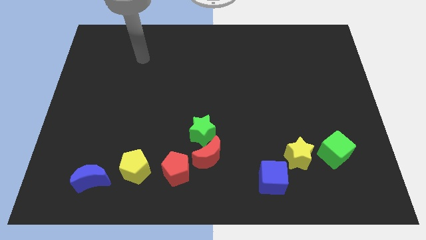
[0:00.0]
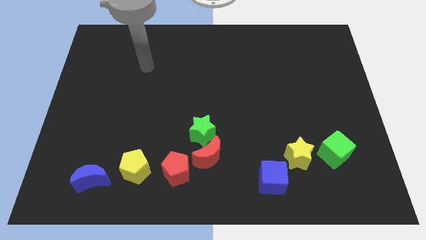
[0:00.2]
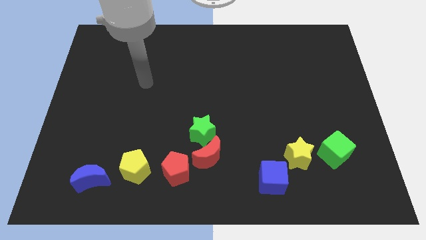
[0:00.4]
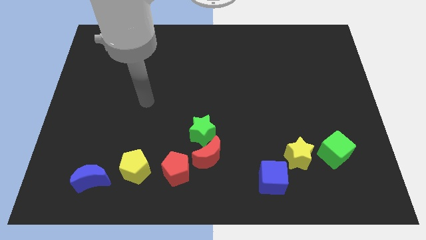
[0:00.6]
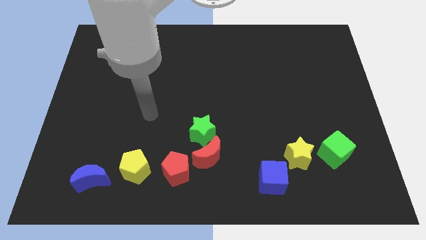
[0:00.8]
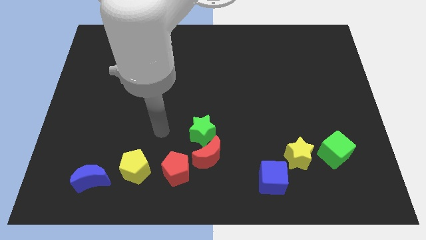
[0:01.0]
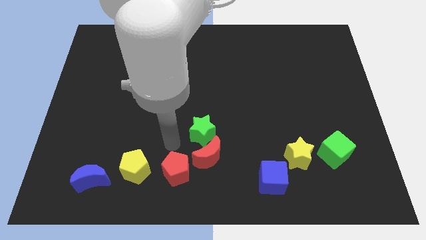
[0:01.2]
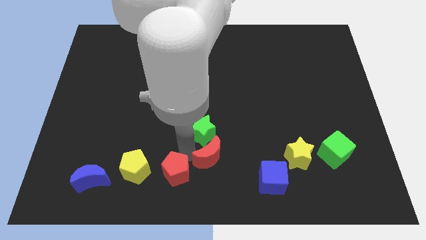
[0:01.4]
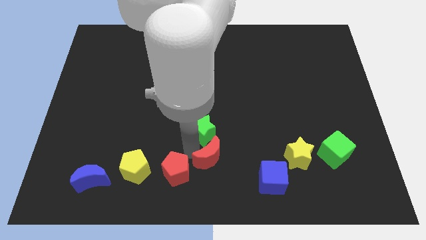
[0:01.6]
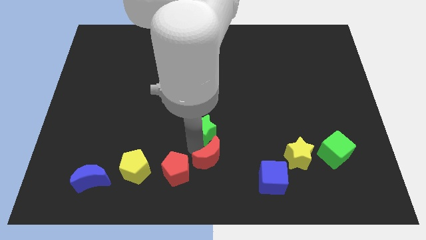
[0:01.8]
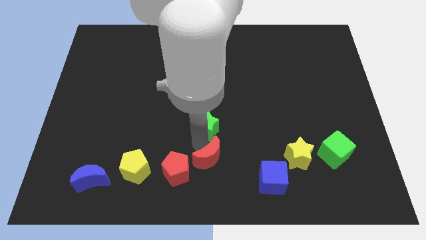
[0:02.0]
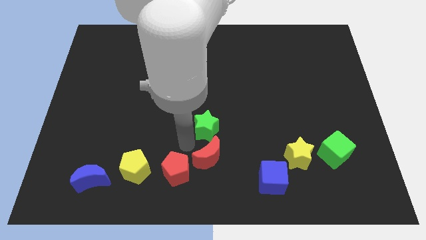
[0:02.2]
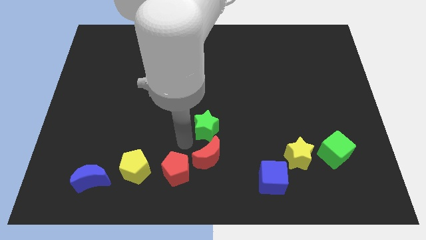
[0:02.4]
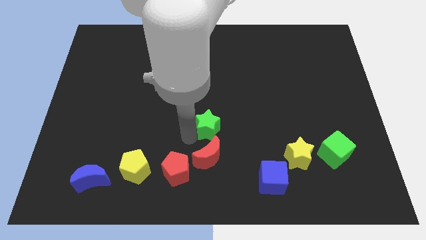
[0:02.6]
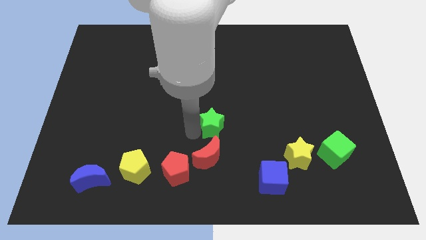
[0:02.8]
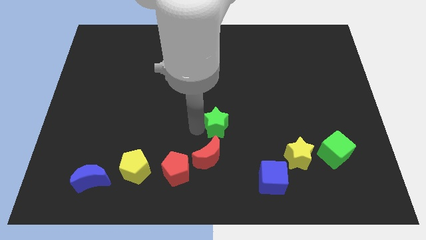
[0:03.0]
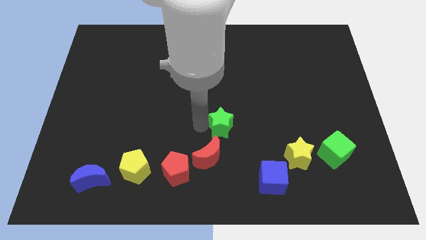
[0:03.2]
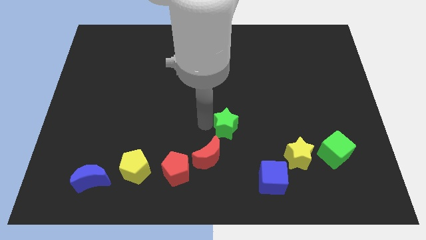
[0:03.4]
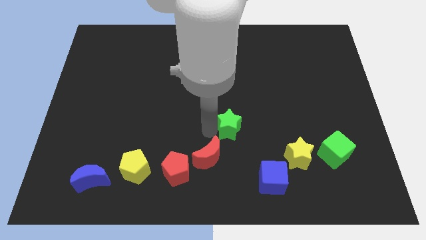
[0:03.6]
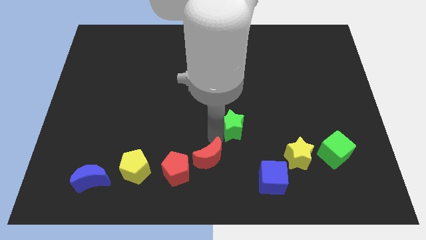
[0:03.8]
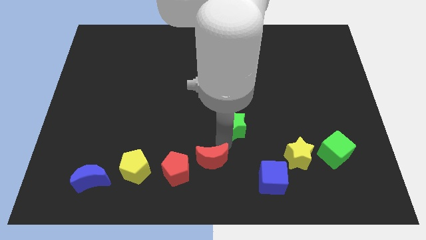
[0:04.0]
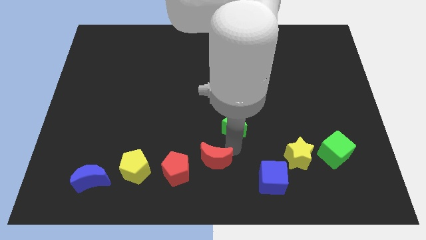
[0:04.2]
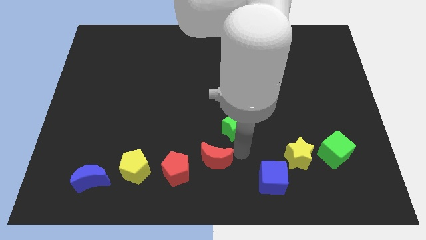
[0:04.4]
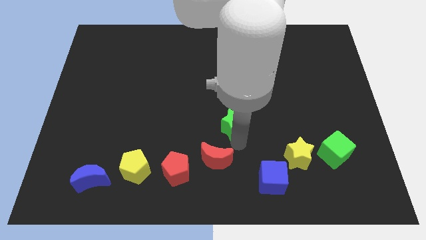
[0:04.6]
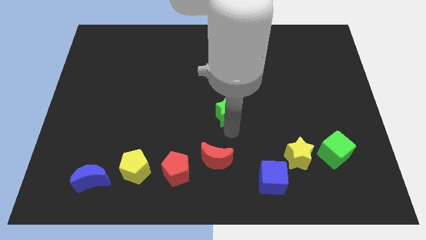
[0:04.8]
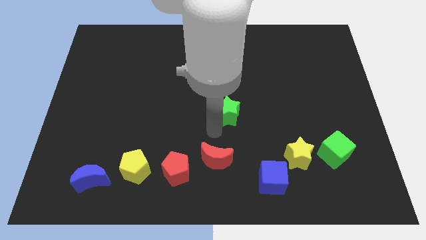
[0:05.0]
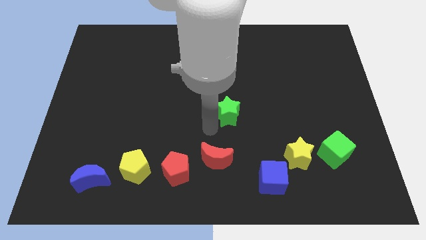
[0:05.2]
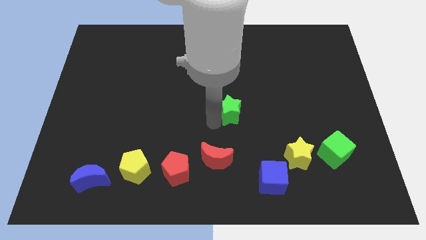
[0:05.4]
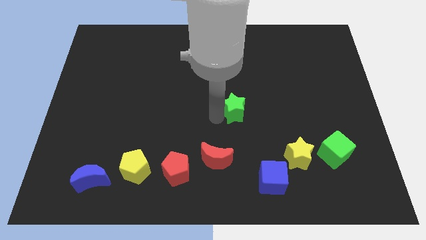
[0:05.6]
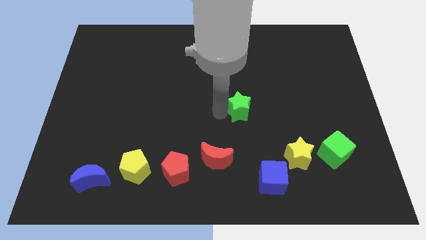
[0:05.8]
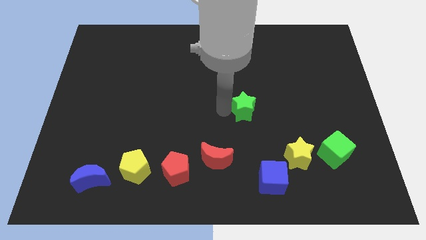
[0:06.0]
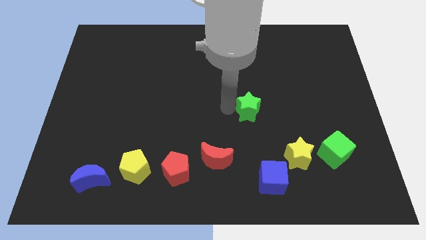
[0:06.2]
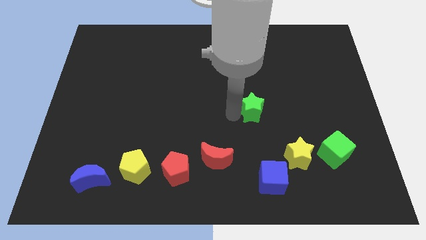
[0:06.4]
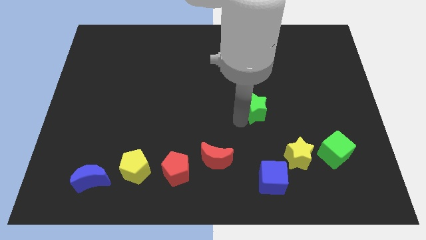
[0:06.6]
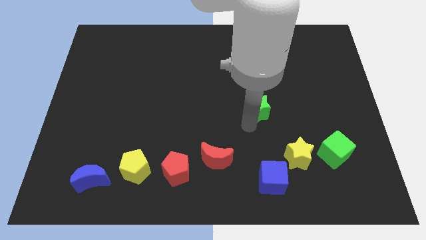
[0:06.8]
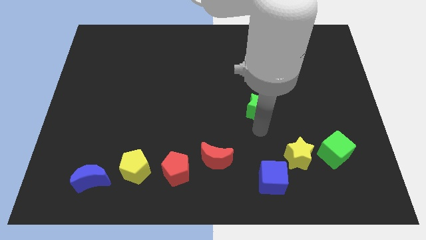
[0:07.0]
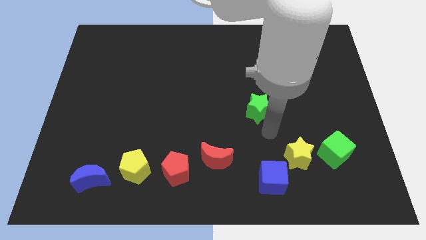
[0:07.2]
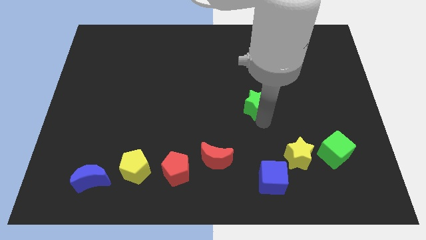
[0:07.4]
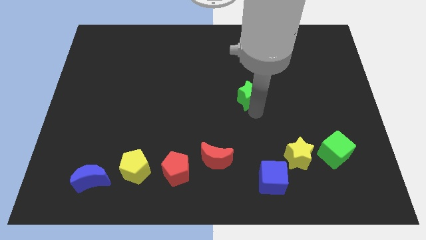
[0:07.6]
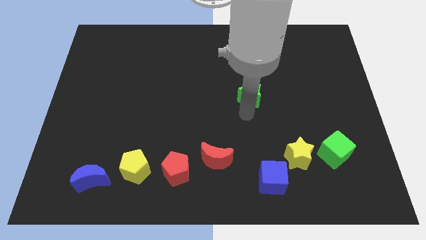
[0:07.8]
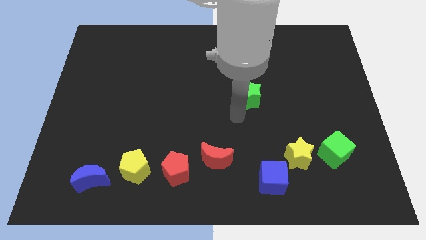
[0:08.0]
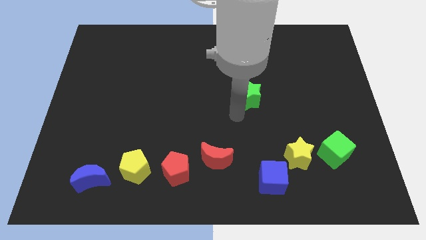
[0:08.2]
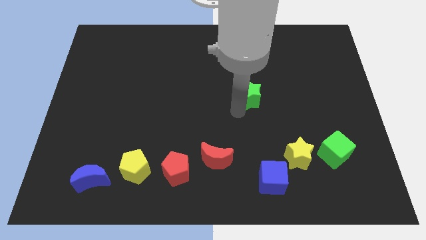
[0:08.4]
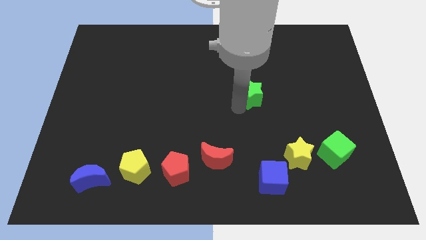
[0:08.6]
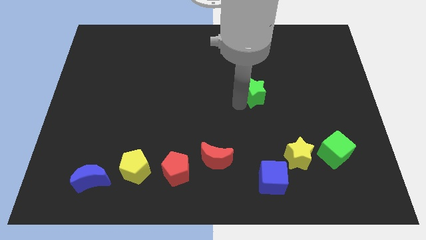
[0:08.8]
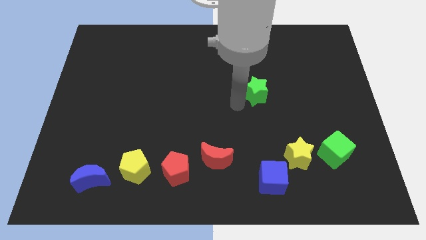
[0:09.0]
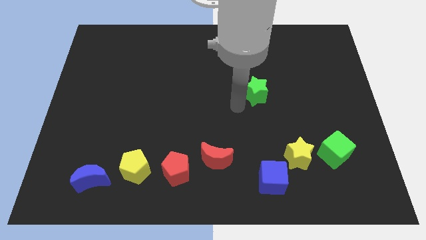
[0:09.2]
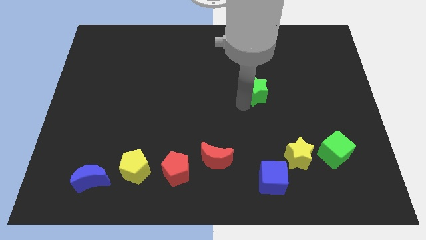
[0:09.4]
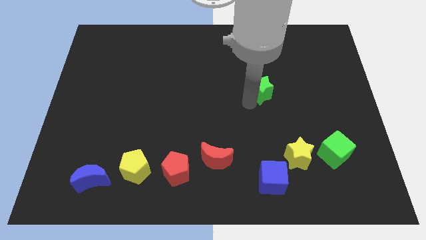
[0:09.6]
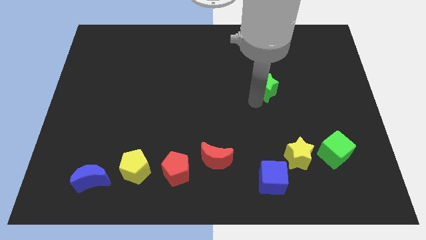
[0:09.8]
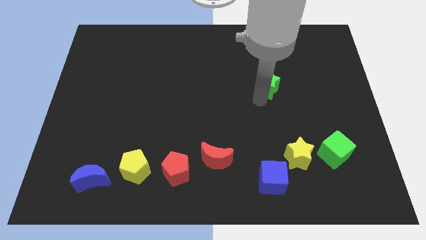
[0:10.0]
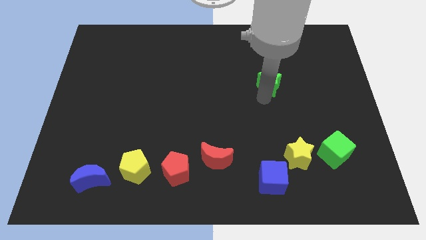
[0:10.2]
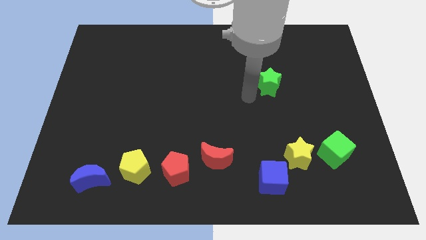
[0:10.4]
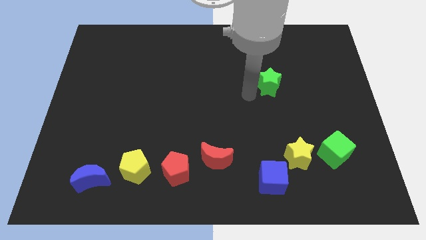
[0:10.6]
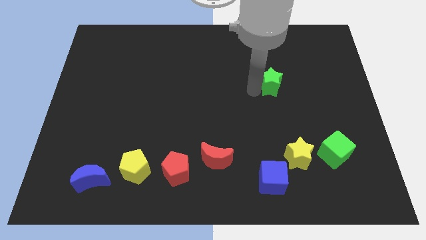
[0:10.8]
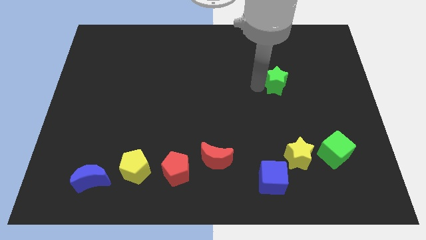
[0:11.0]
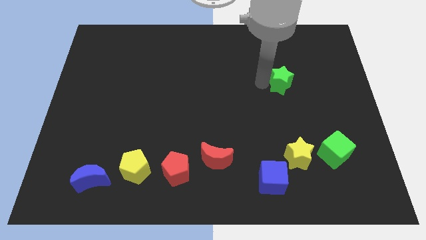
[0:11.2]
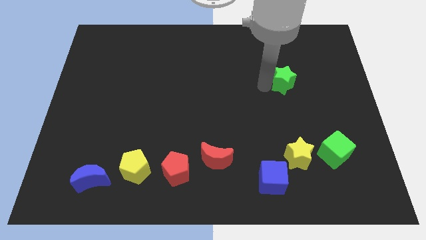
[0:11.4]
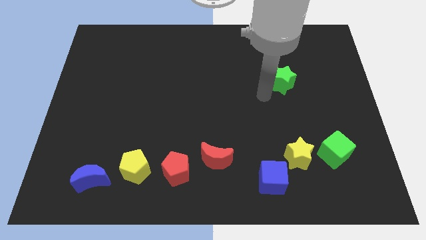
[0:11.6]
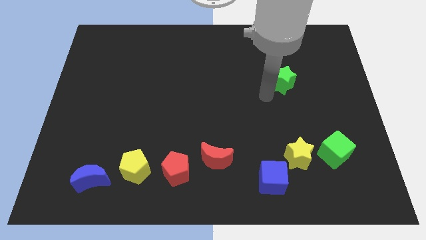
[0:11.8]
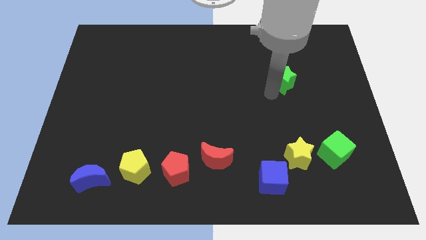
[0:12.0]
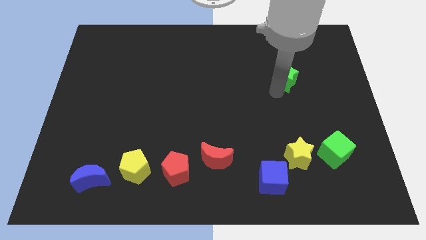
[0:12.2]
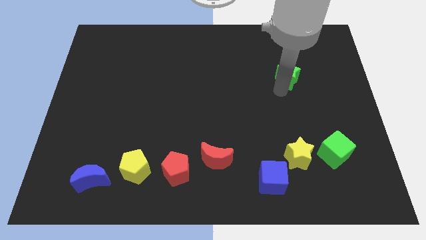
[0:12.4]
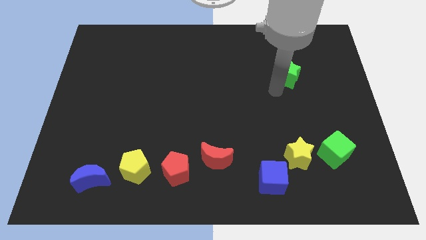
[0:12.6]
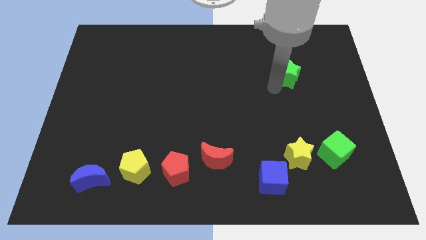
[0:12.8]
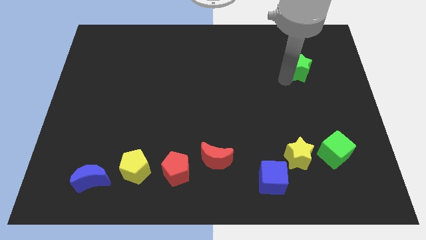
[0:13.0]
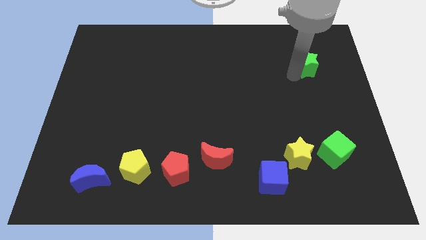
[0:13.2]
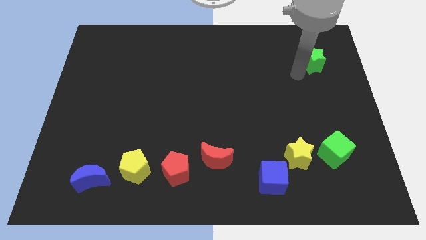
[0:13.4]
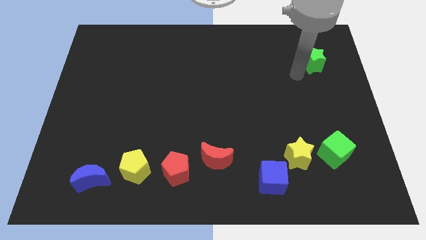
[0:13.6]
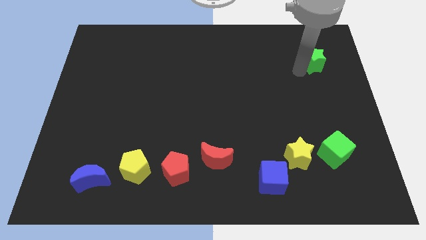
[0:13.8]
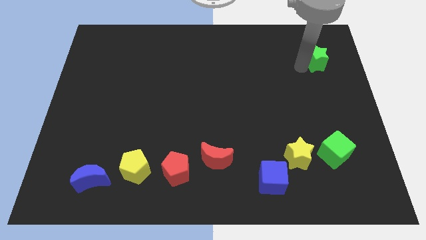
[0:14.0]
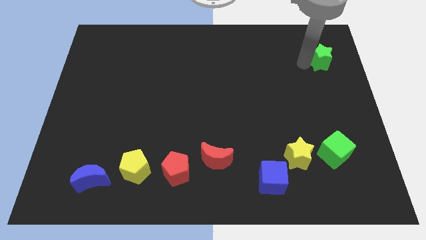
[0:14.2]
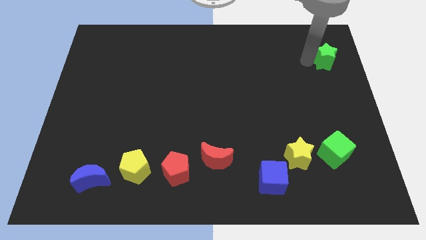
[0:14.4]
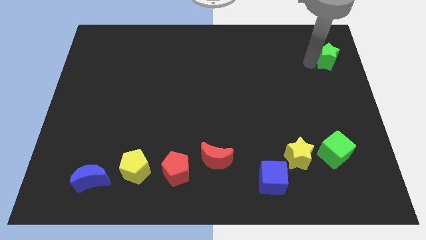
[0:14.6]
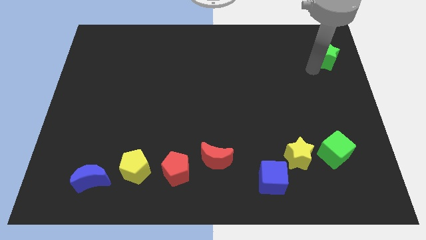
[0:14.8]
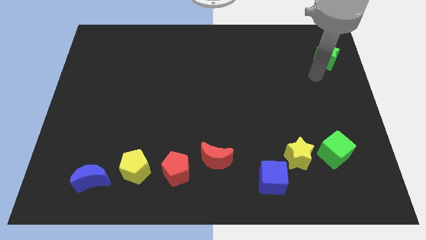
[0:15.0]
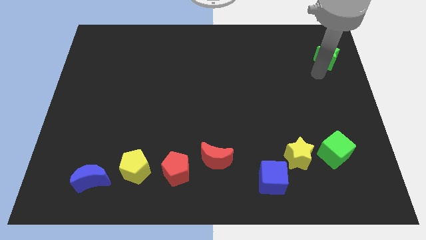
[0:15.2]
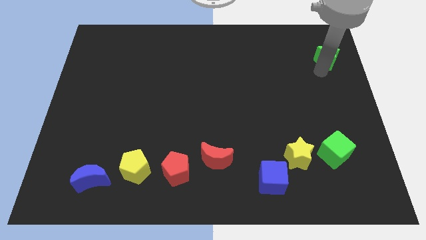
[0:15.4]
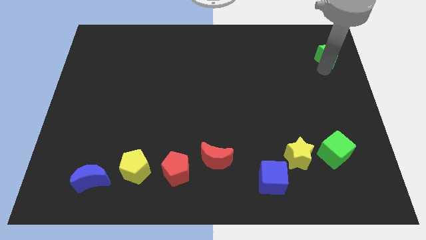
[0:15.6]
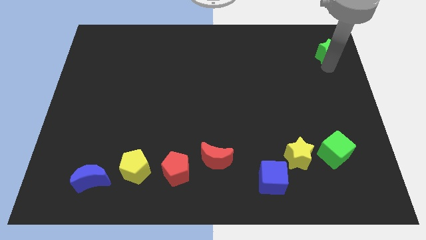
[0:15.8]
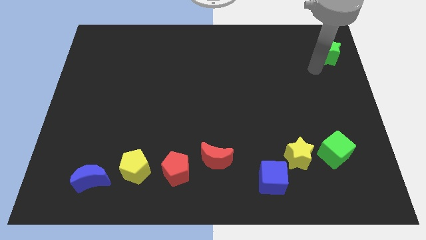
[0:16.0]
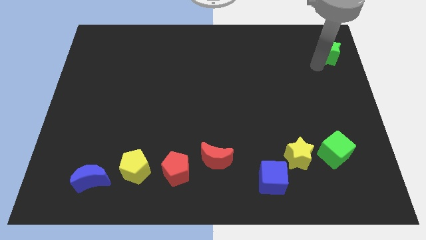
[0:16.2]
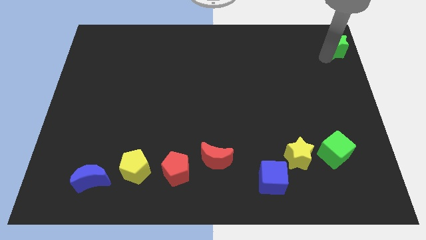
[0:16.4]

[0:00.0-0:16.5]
put the green star to the upper right corner
